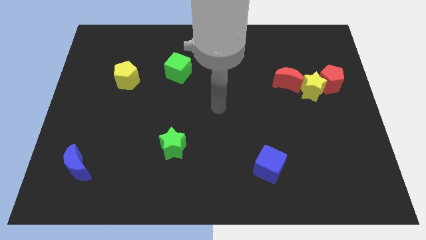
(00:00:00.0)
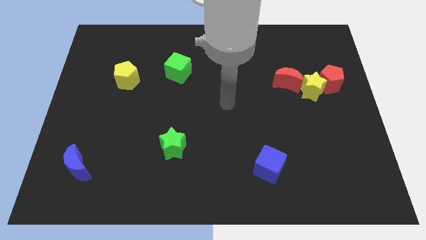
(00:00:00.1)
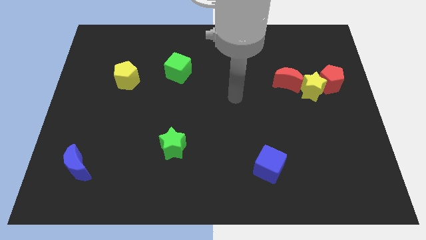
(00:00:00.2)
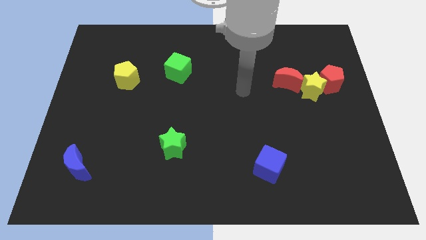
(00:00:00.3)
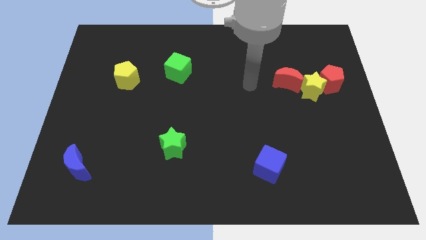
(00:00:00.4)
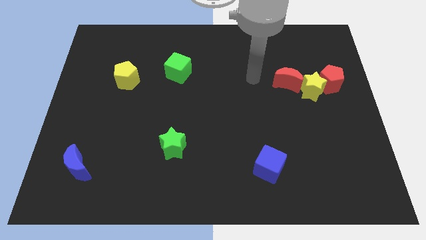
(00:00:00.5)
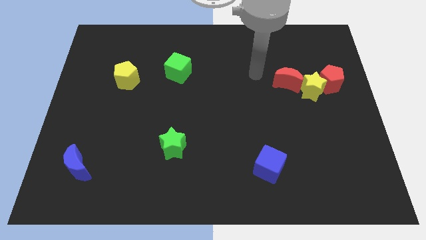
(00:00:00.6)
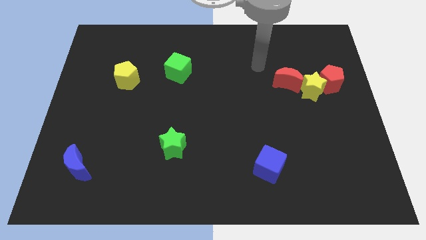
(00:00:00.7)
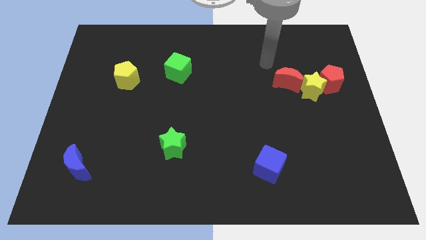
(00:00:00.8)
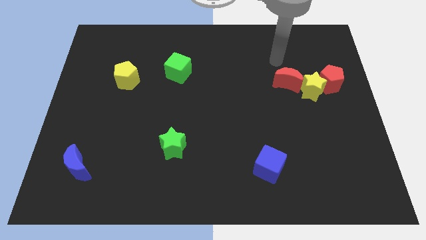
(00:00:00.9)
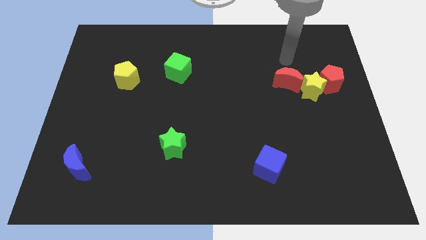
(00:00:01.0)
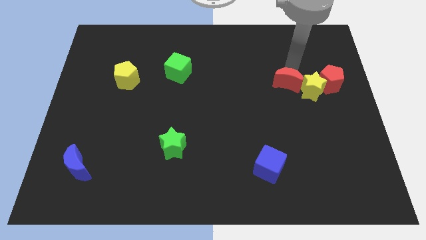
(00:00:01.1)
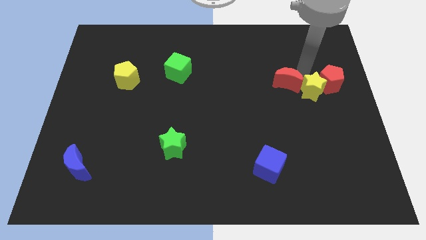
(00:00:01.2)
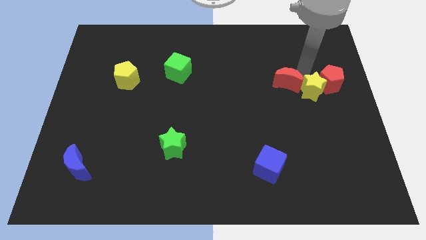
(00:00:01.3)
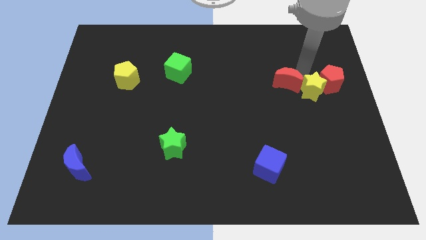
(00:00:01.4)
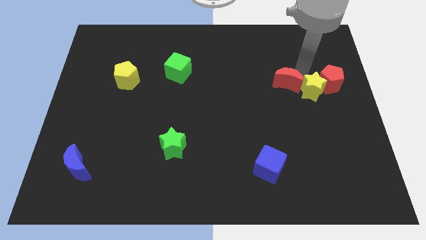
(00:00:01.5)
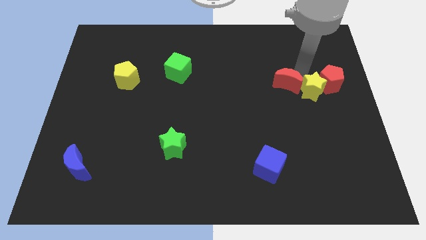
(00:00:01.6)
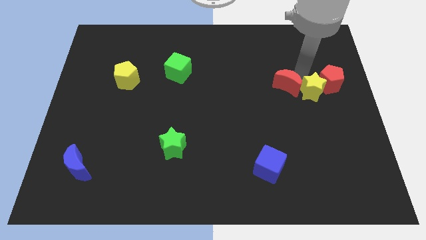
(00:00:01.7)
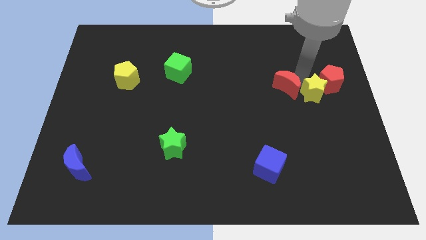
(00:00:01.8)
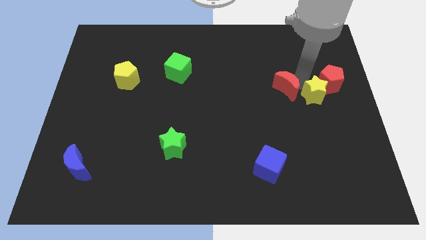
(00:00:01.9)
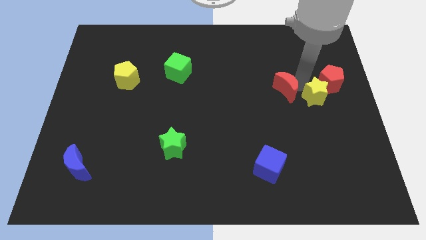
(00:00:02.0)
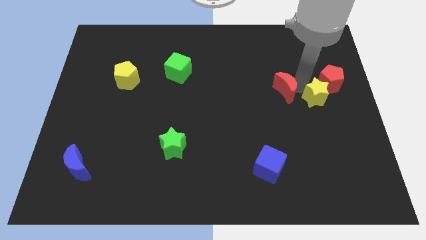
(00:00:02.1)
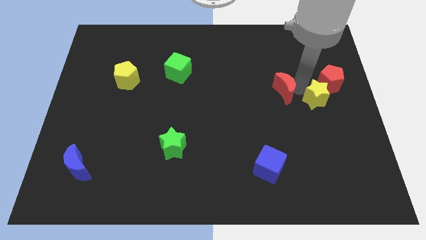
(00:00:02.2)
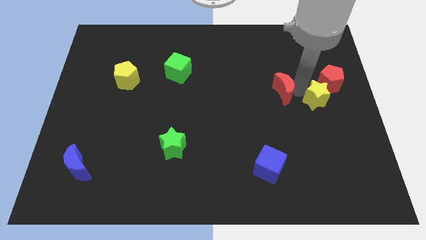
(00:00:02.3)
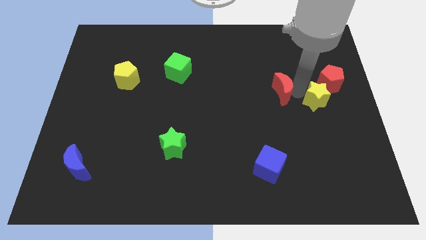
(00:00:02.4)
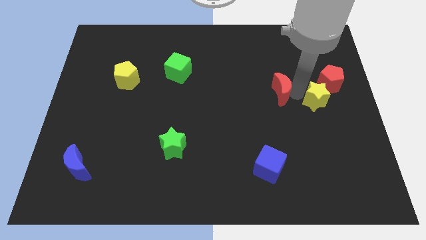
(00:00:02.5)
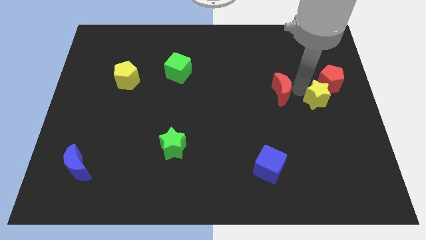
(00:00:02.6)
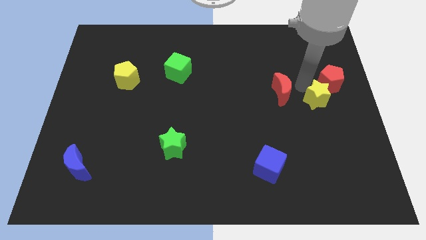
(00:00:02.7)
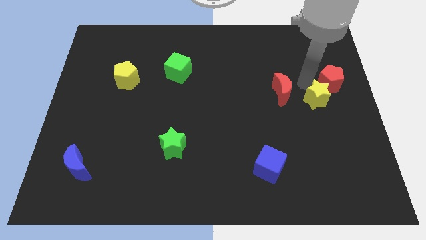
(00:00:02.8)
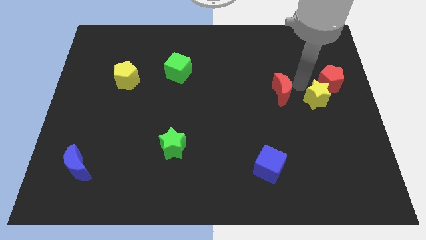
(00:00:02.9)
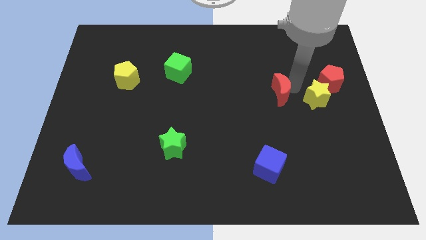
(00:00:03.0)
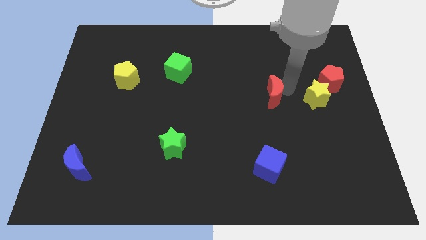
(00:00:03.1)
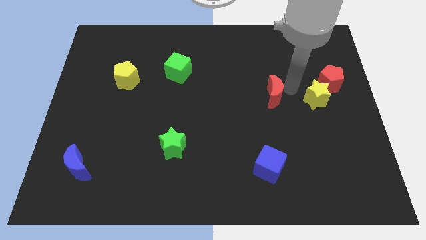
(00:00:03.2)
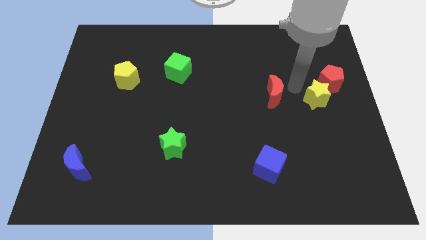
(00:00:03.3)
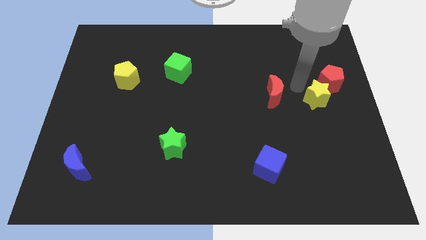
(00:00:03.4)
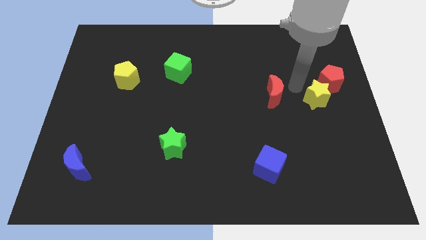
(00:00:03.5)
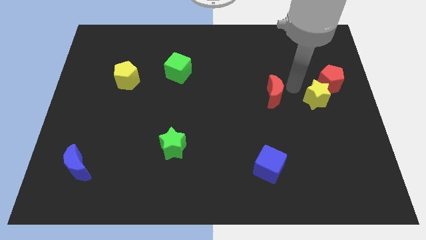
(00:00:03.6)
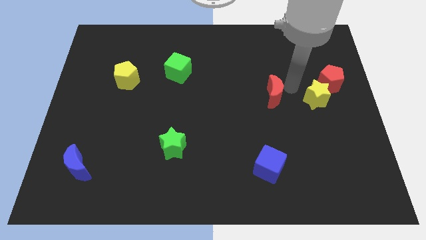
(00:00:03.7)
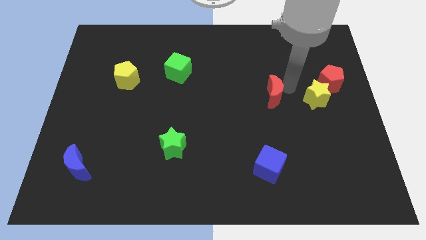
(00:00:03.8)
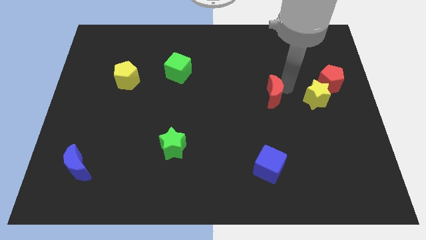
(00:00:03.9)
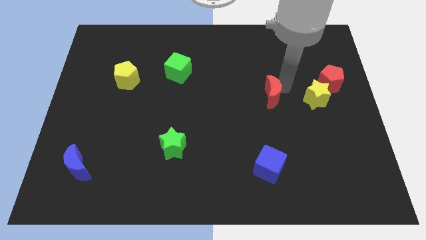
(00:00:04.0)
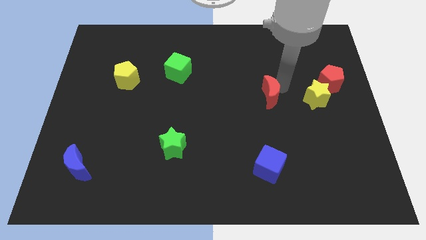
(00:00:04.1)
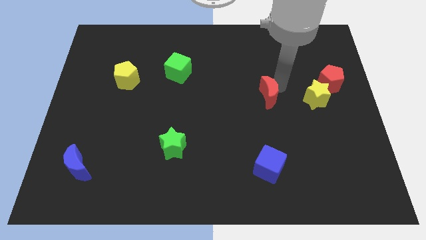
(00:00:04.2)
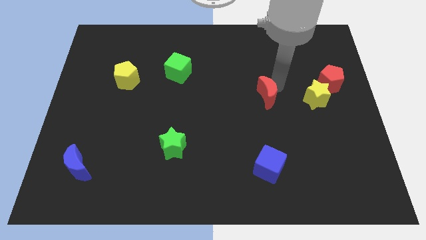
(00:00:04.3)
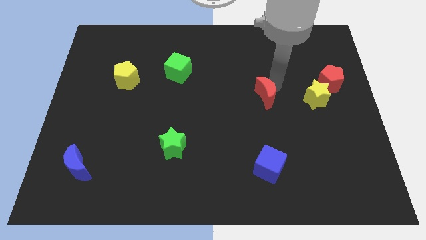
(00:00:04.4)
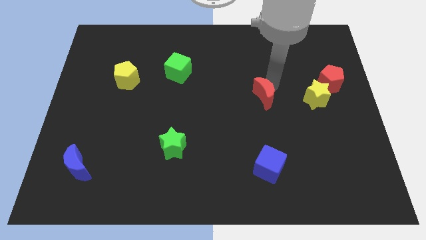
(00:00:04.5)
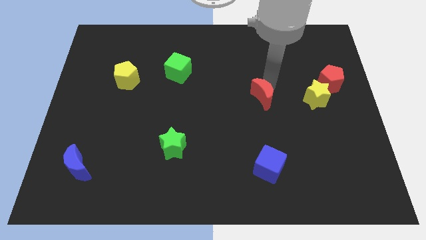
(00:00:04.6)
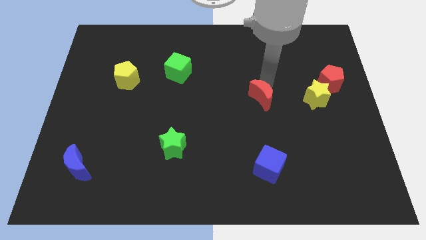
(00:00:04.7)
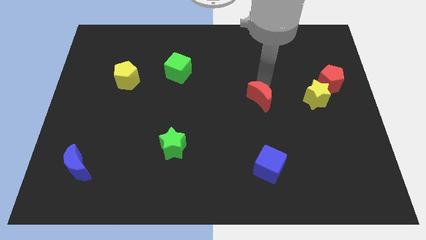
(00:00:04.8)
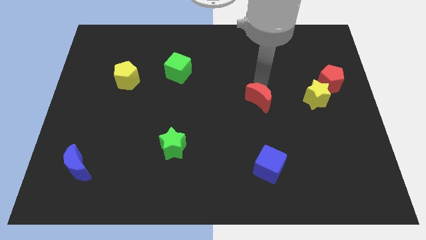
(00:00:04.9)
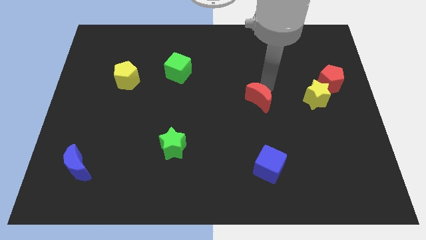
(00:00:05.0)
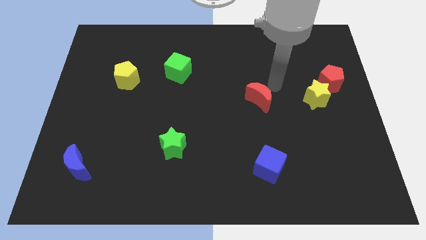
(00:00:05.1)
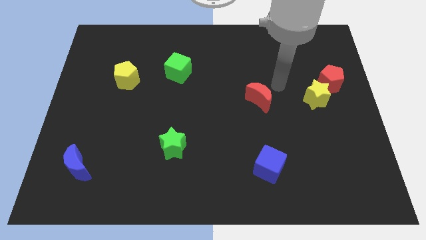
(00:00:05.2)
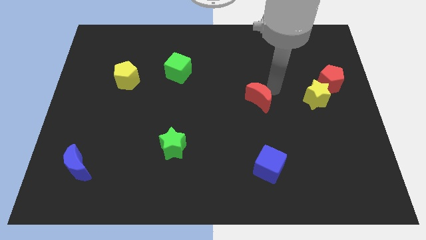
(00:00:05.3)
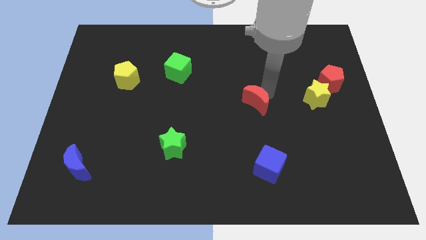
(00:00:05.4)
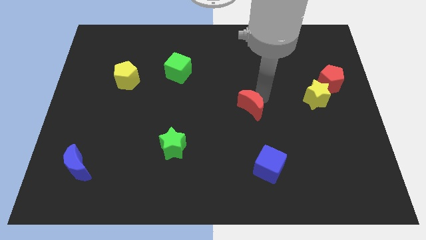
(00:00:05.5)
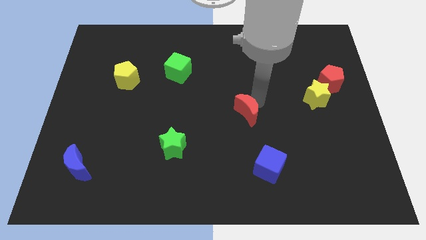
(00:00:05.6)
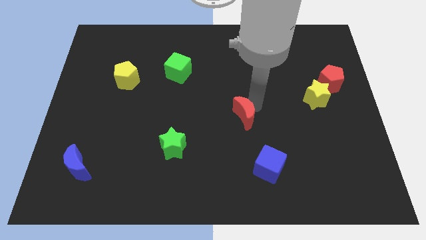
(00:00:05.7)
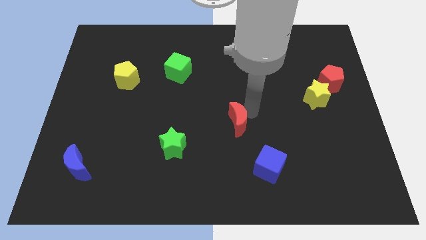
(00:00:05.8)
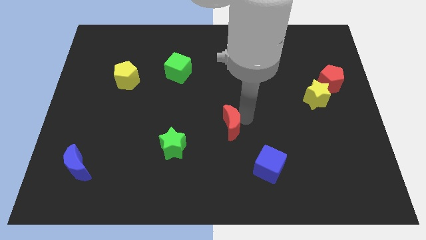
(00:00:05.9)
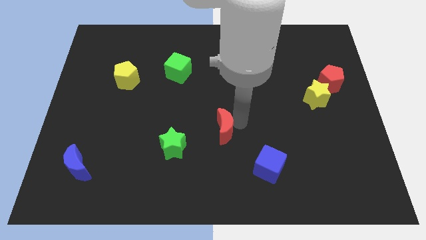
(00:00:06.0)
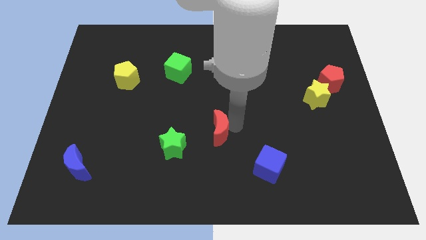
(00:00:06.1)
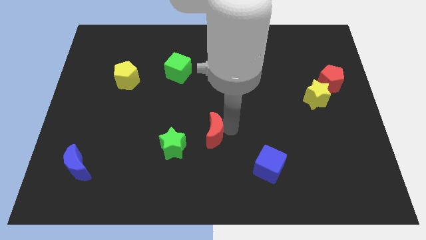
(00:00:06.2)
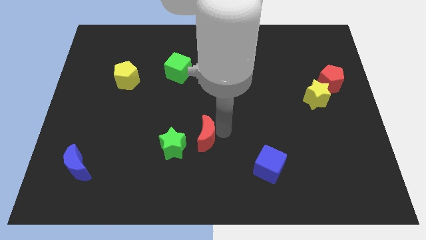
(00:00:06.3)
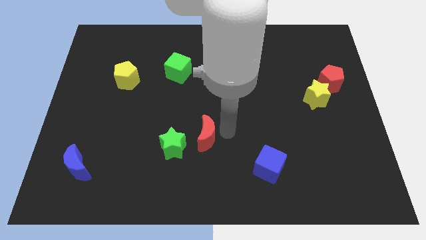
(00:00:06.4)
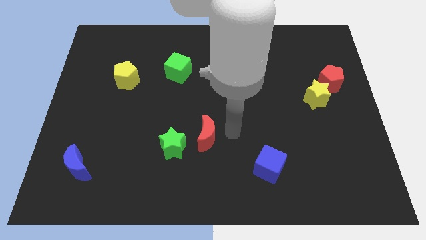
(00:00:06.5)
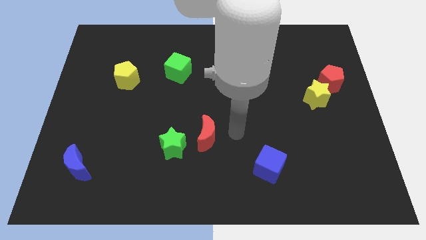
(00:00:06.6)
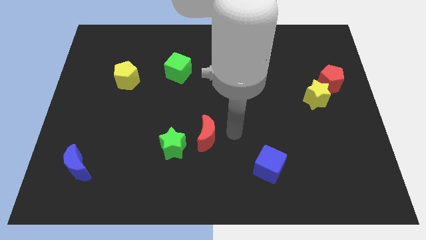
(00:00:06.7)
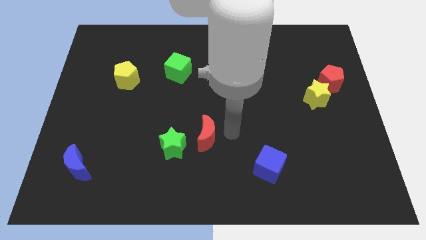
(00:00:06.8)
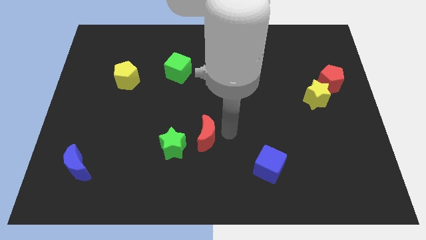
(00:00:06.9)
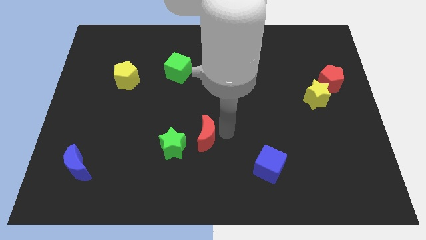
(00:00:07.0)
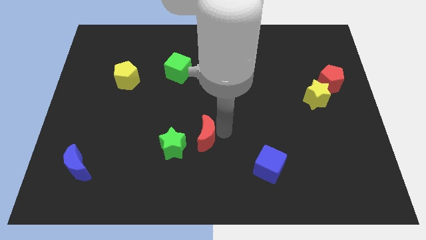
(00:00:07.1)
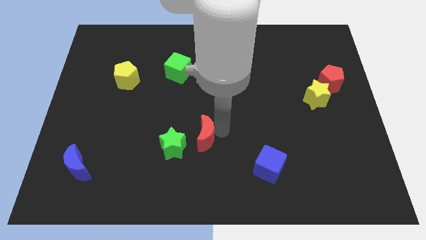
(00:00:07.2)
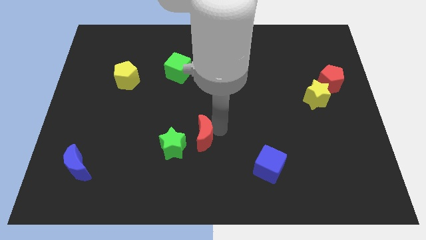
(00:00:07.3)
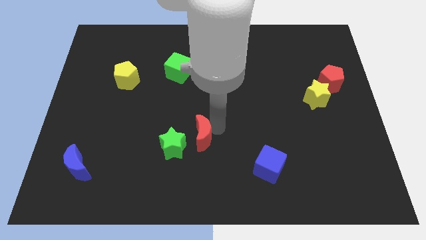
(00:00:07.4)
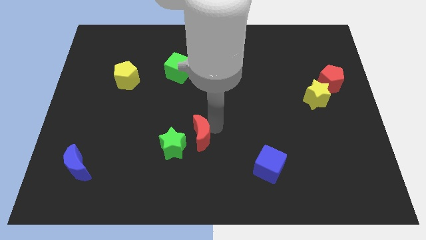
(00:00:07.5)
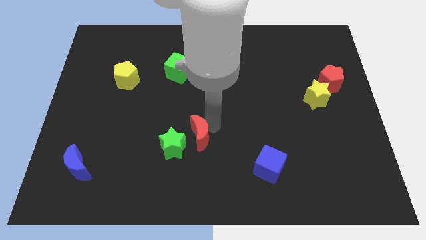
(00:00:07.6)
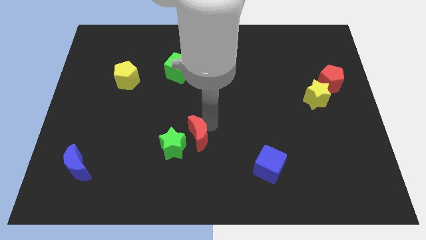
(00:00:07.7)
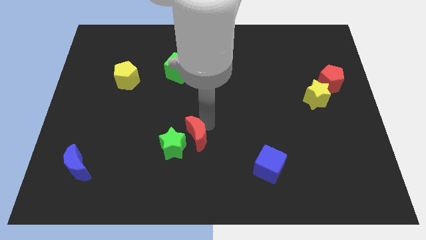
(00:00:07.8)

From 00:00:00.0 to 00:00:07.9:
put the red moon close to the green star
